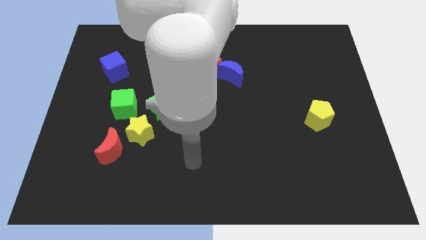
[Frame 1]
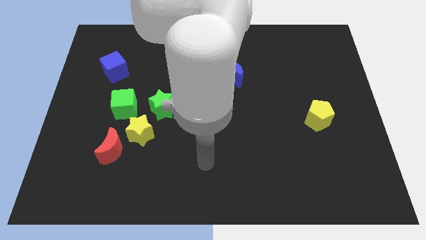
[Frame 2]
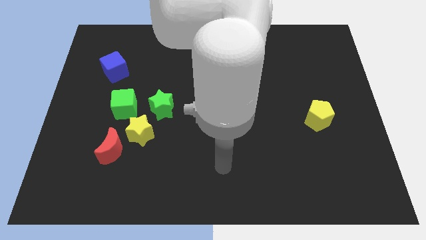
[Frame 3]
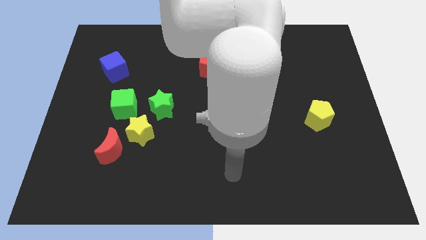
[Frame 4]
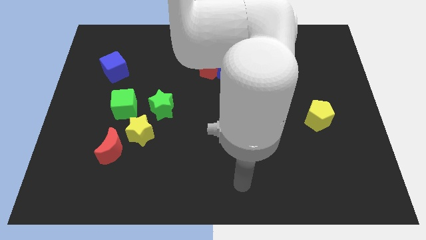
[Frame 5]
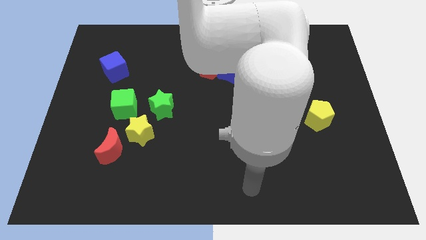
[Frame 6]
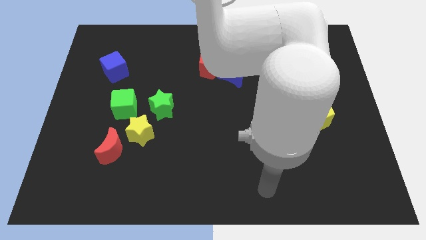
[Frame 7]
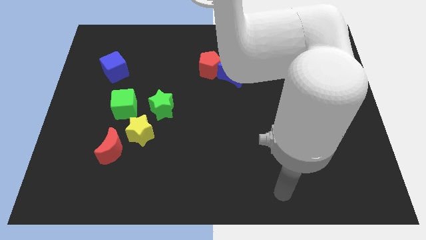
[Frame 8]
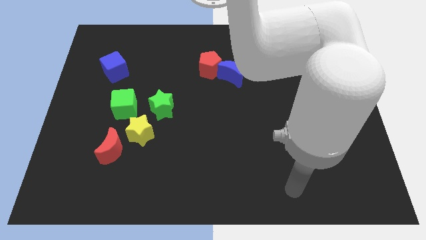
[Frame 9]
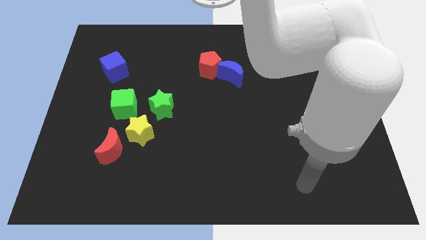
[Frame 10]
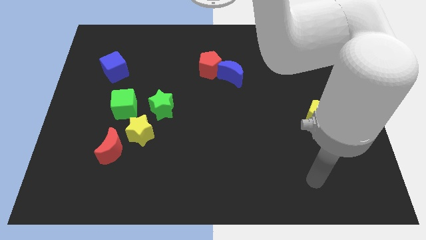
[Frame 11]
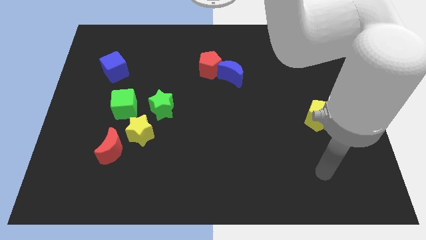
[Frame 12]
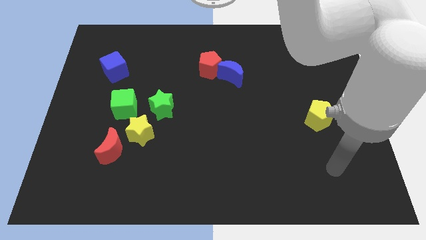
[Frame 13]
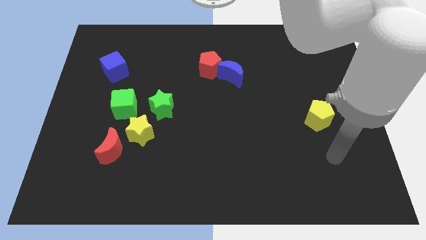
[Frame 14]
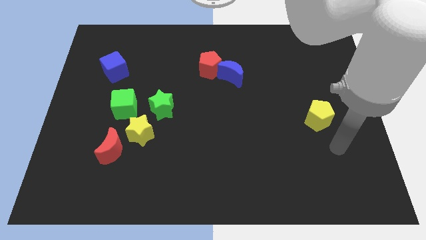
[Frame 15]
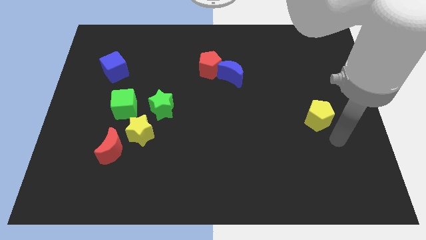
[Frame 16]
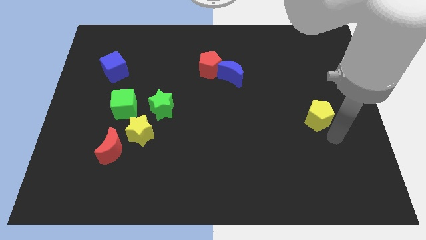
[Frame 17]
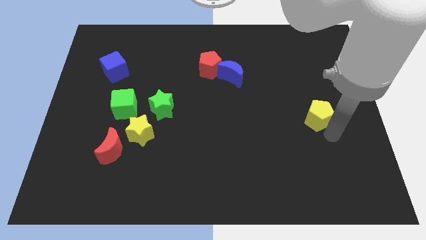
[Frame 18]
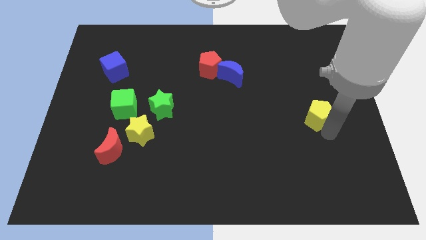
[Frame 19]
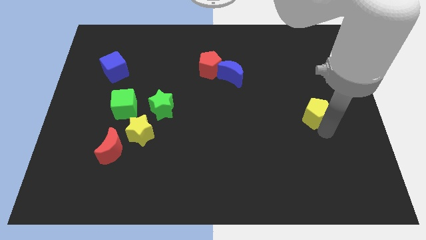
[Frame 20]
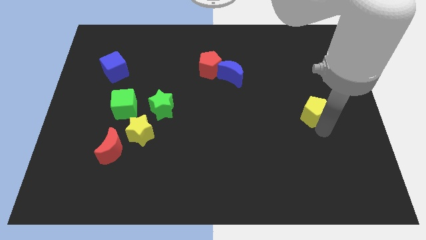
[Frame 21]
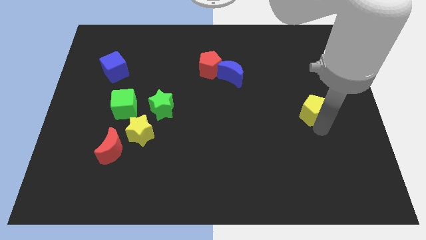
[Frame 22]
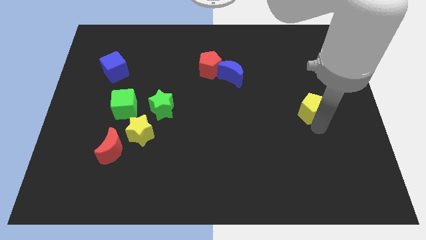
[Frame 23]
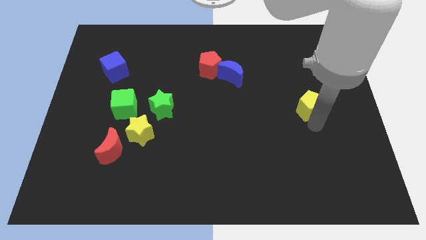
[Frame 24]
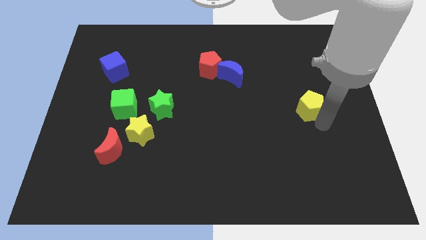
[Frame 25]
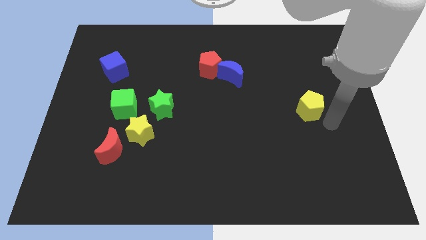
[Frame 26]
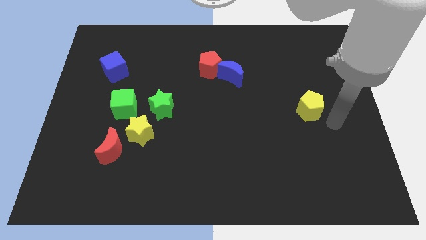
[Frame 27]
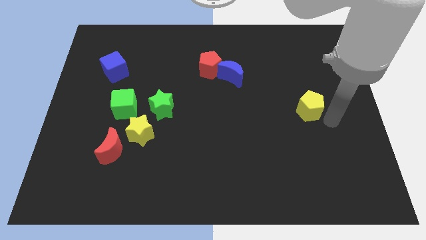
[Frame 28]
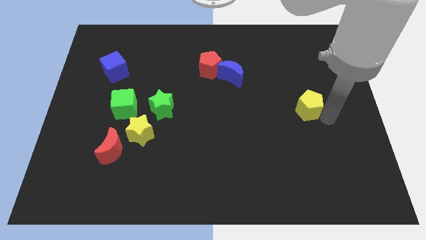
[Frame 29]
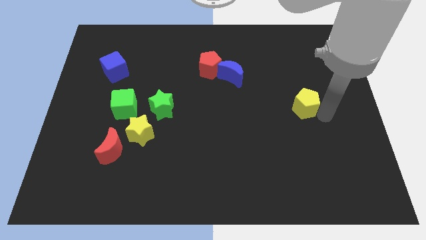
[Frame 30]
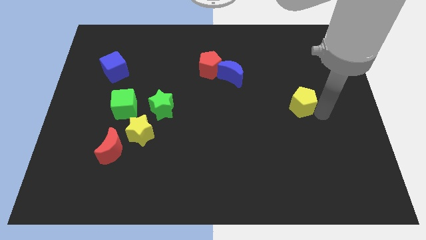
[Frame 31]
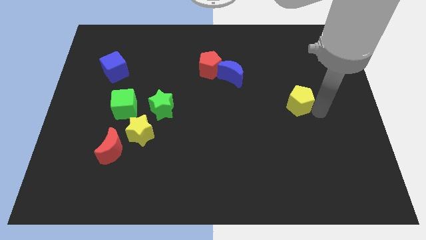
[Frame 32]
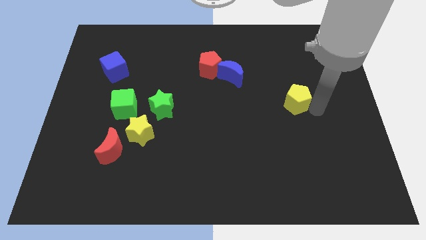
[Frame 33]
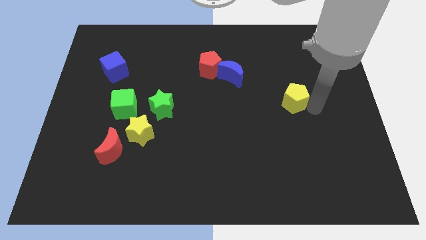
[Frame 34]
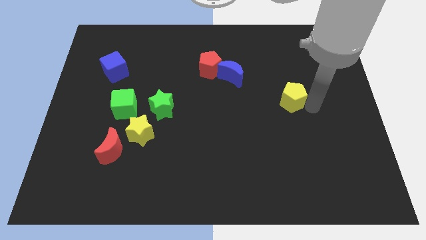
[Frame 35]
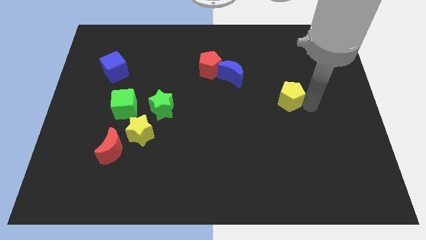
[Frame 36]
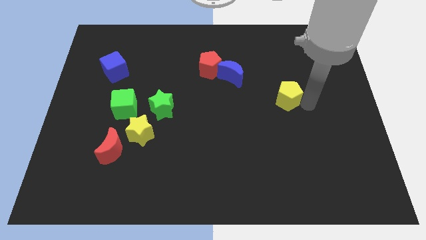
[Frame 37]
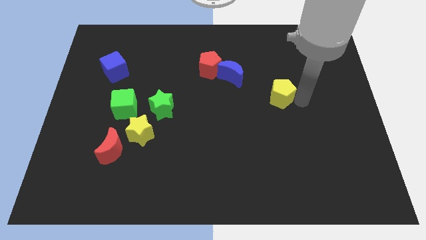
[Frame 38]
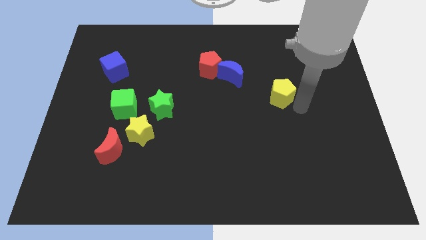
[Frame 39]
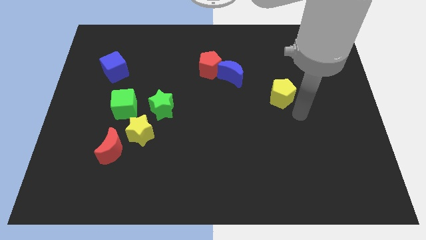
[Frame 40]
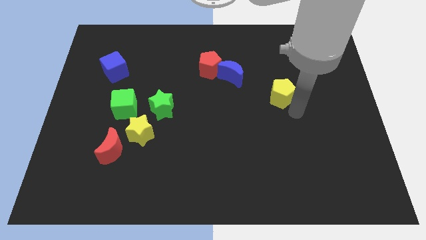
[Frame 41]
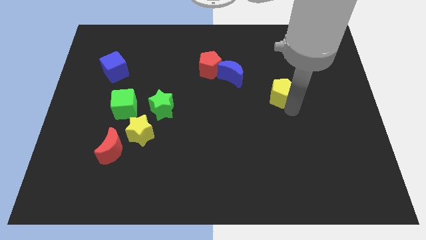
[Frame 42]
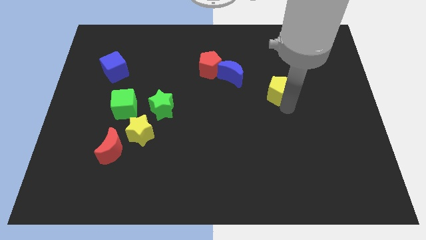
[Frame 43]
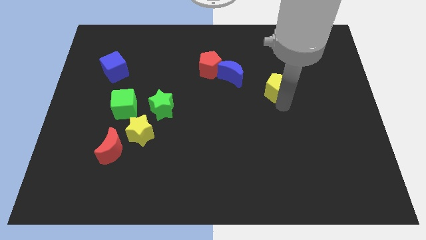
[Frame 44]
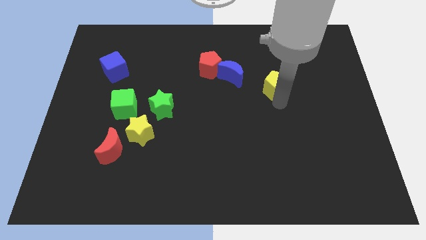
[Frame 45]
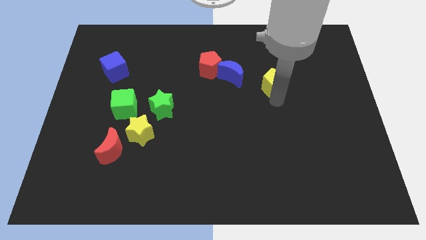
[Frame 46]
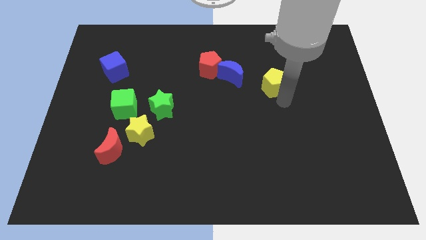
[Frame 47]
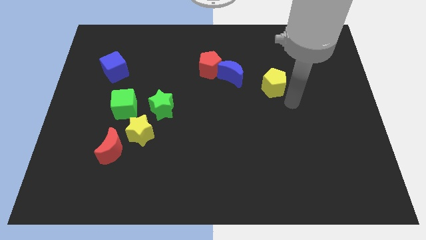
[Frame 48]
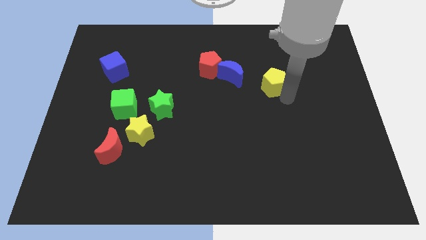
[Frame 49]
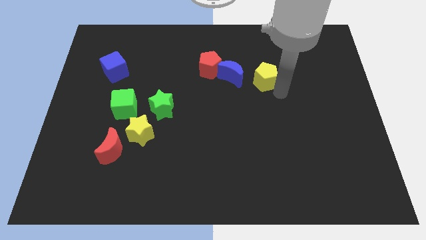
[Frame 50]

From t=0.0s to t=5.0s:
slide the yellow pentagon just right of the red pentagon

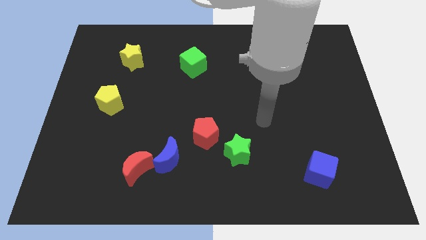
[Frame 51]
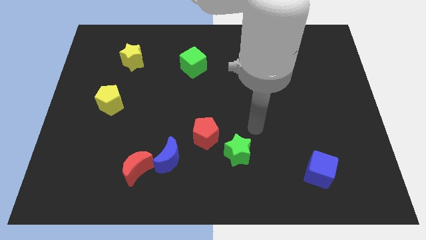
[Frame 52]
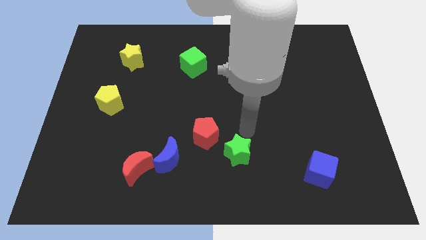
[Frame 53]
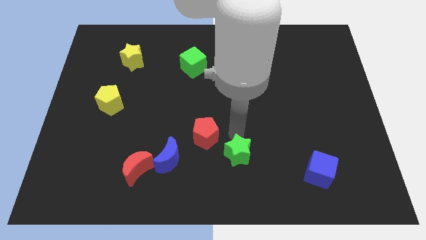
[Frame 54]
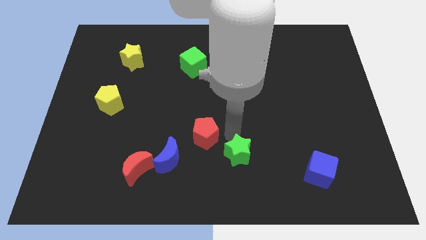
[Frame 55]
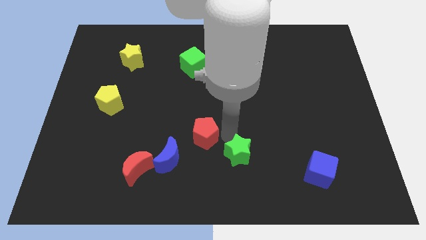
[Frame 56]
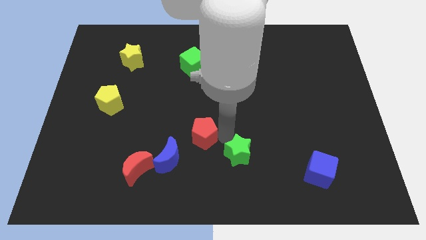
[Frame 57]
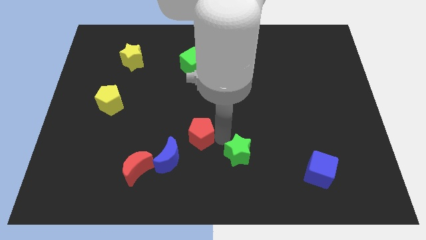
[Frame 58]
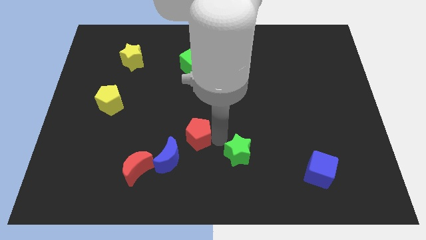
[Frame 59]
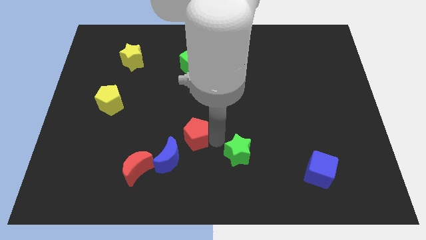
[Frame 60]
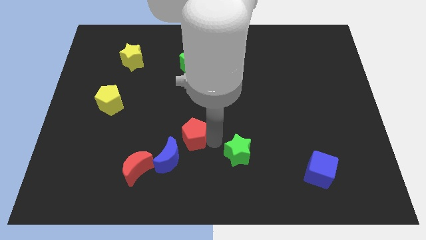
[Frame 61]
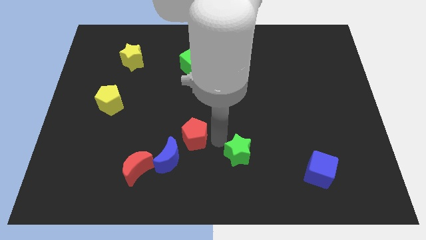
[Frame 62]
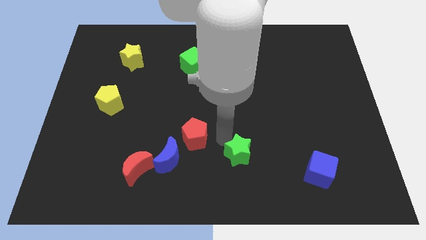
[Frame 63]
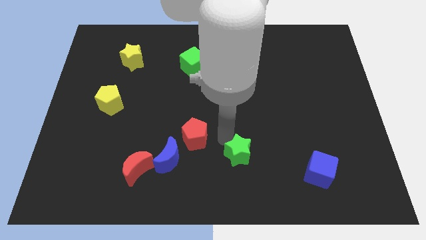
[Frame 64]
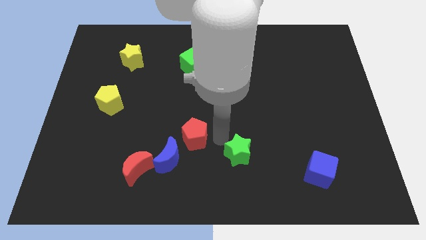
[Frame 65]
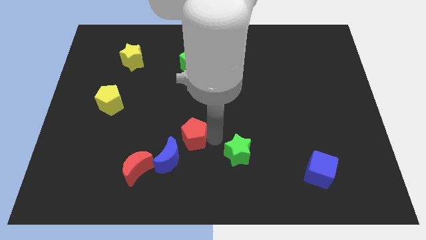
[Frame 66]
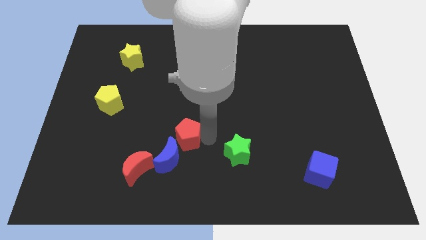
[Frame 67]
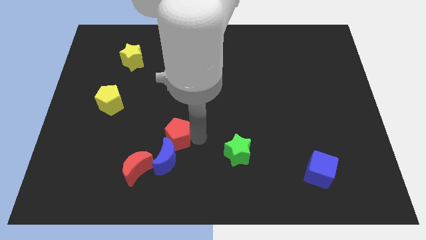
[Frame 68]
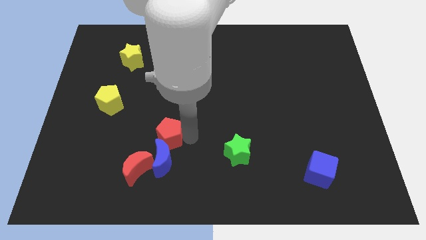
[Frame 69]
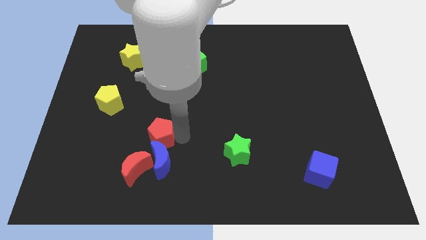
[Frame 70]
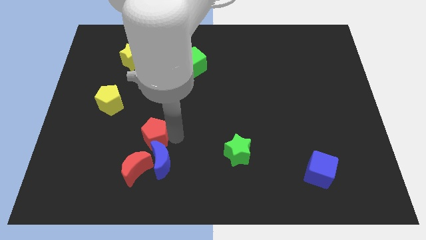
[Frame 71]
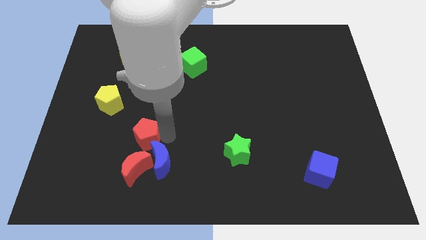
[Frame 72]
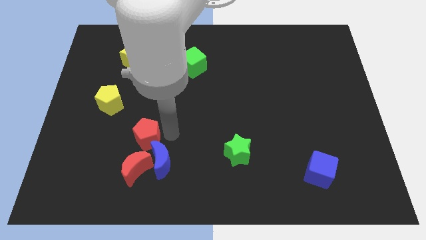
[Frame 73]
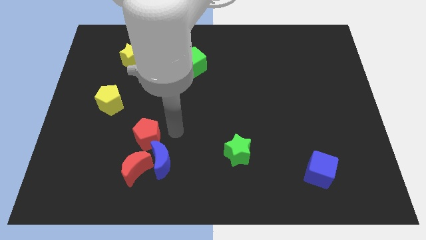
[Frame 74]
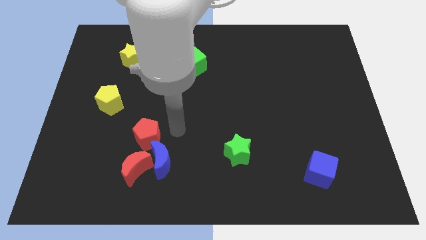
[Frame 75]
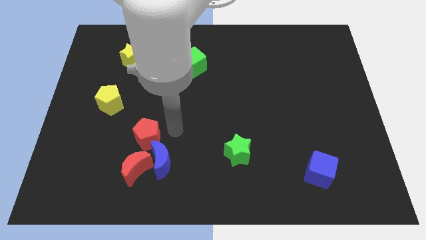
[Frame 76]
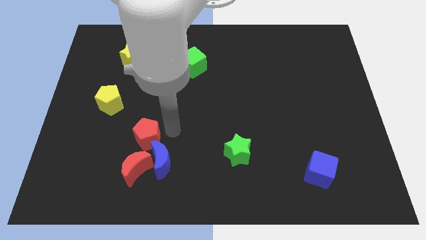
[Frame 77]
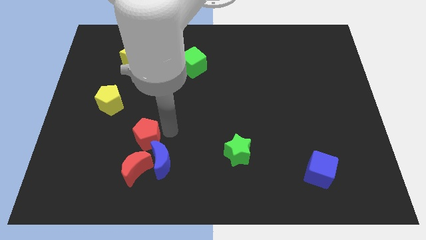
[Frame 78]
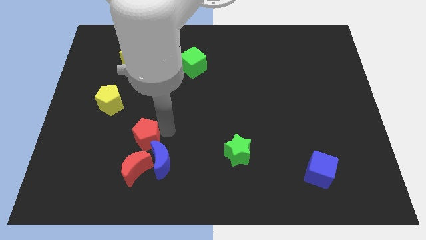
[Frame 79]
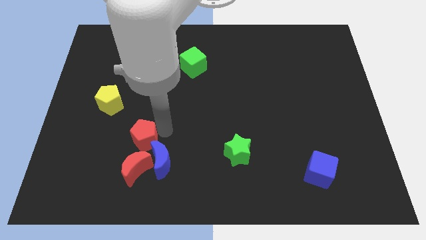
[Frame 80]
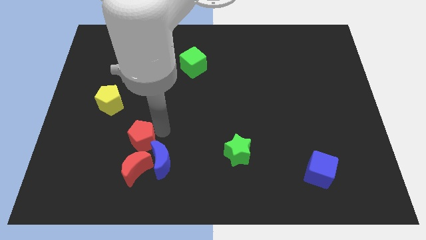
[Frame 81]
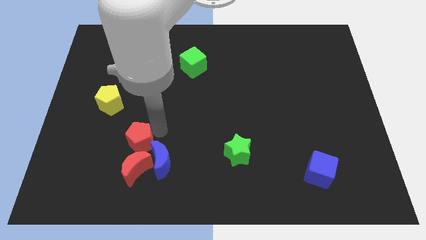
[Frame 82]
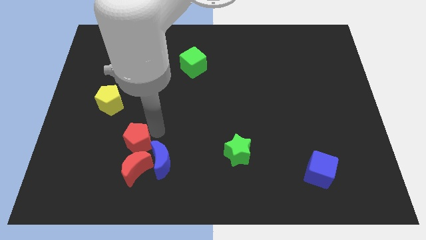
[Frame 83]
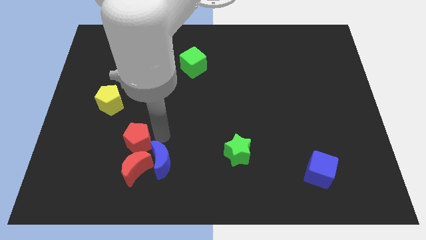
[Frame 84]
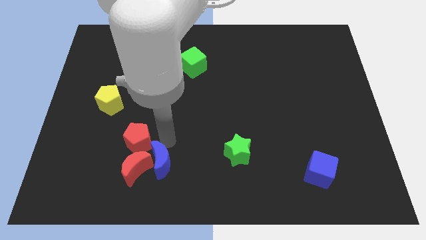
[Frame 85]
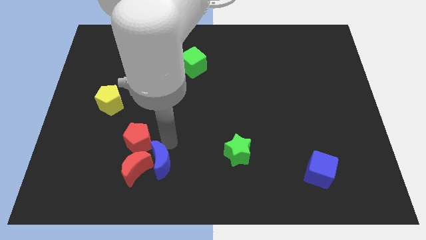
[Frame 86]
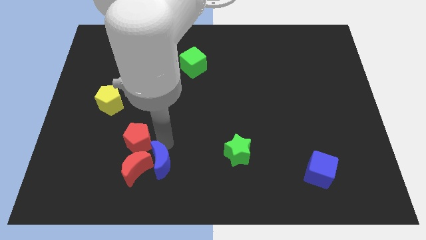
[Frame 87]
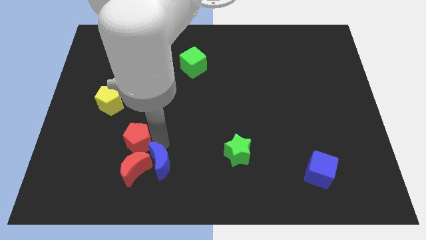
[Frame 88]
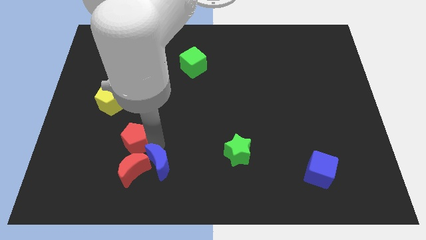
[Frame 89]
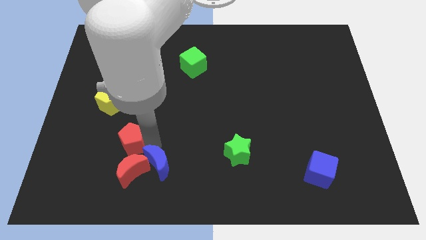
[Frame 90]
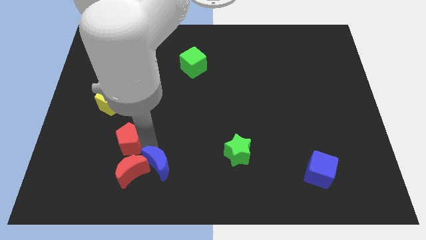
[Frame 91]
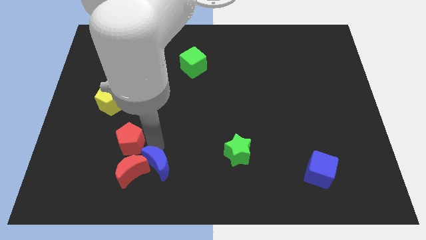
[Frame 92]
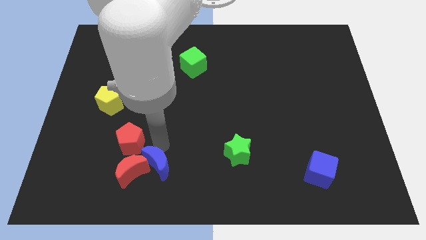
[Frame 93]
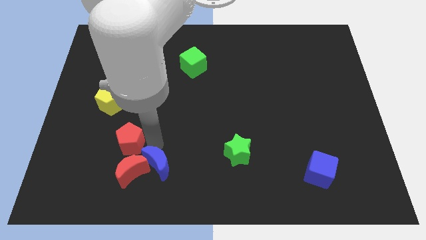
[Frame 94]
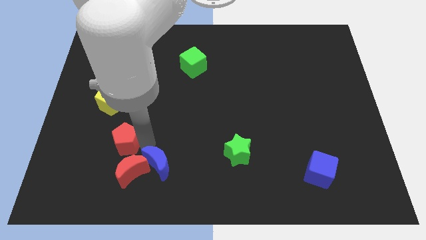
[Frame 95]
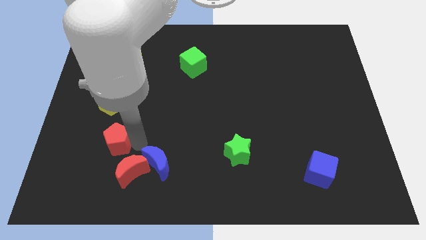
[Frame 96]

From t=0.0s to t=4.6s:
push the red pentagon below the yellow pentagon
